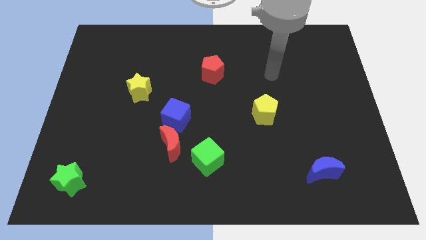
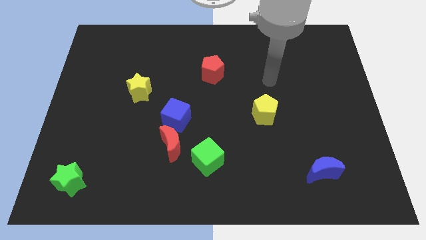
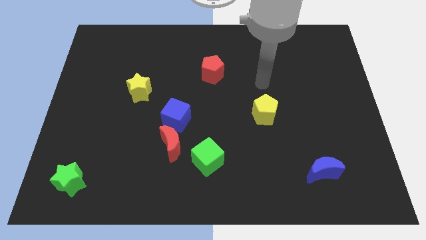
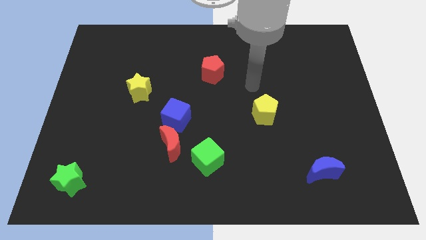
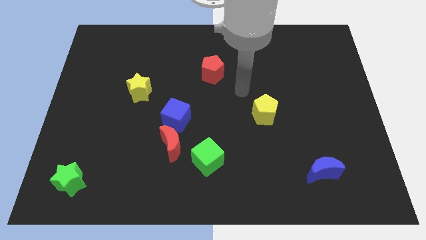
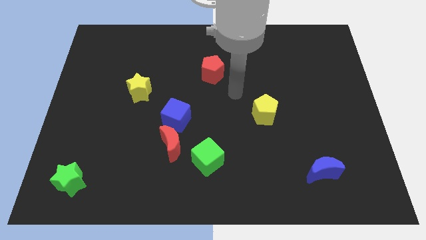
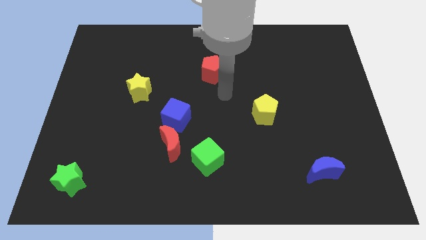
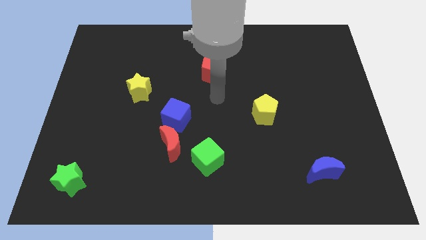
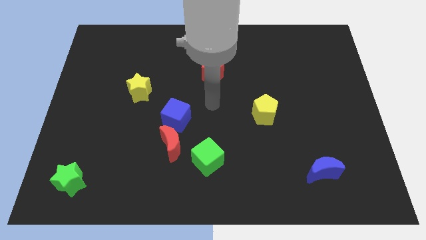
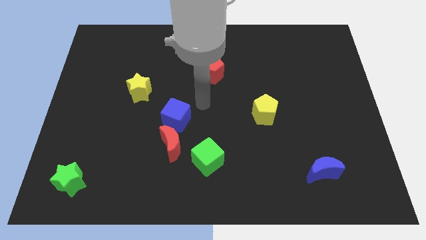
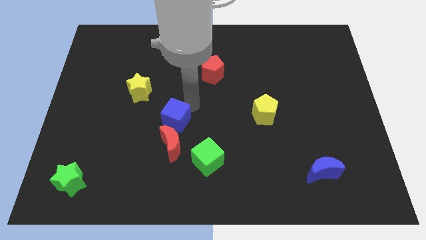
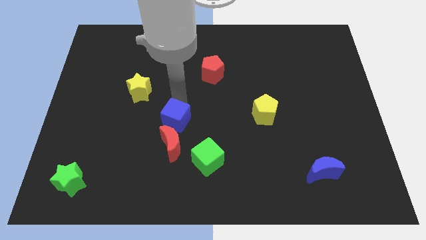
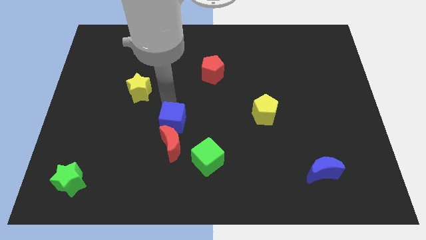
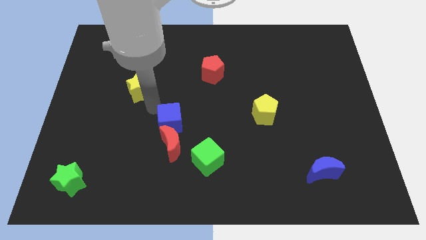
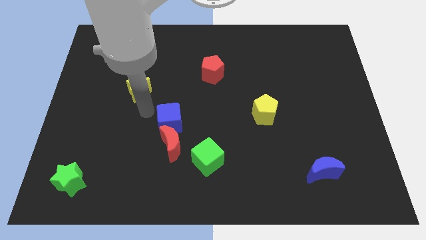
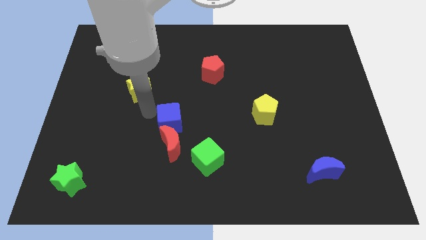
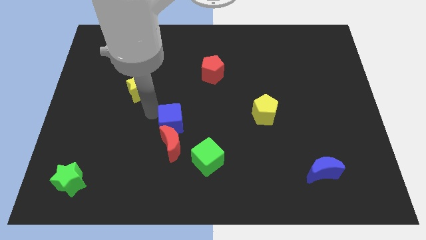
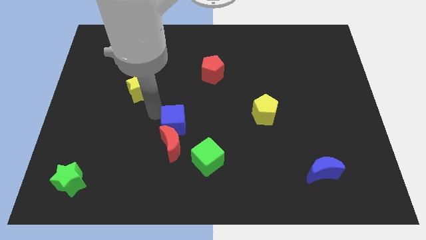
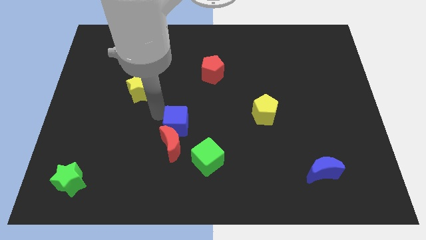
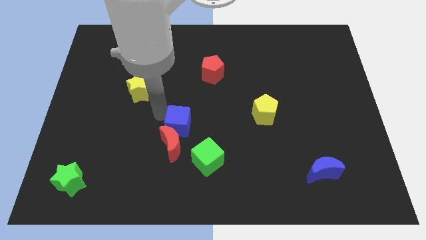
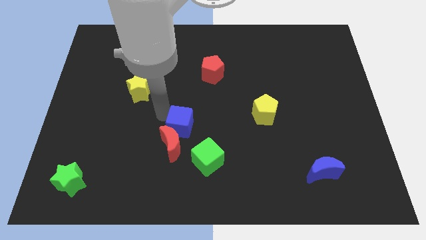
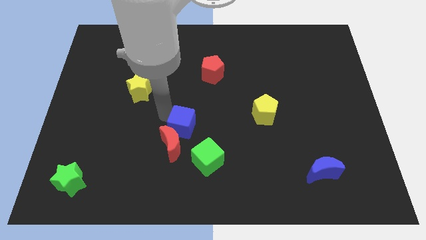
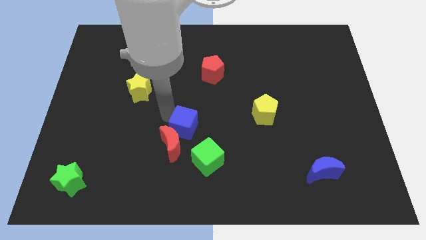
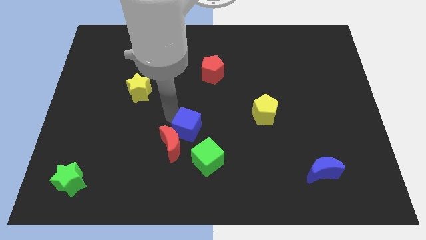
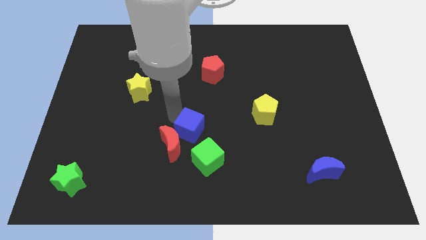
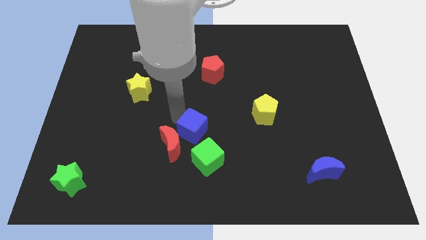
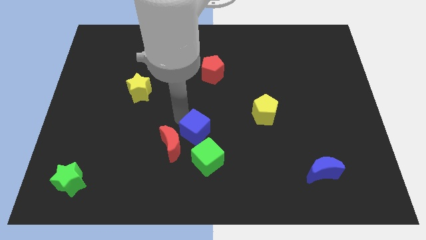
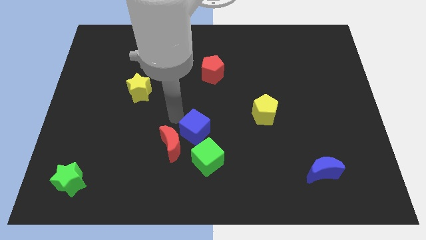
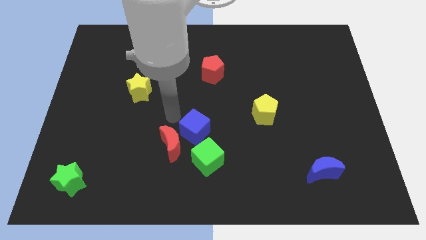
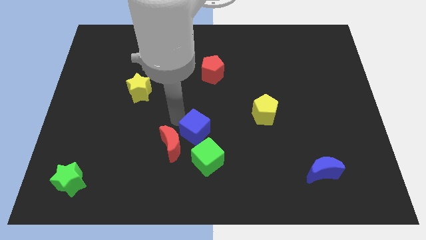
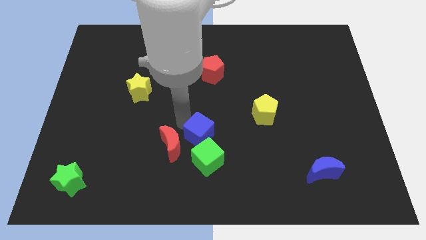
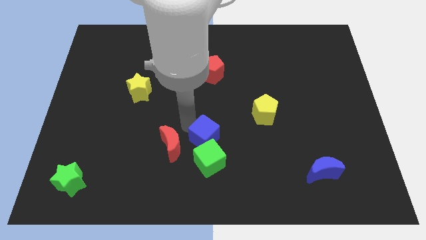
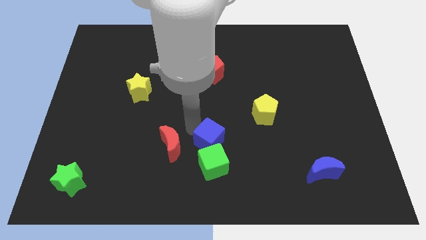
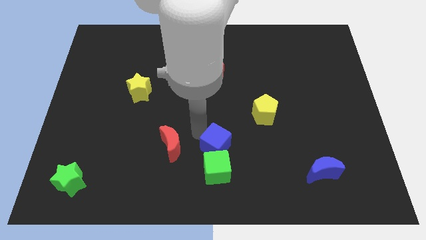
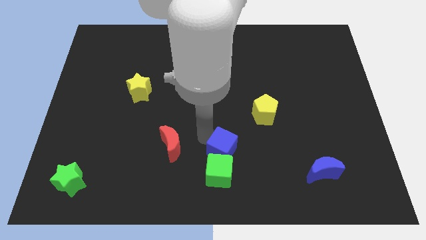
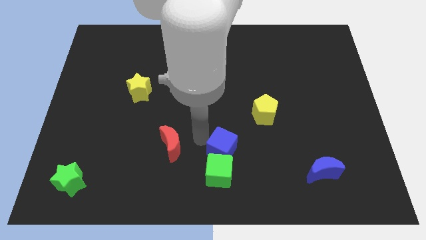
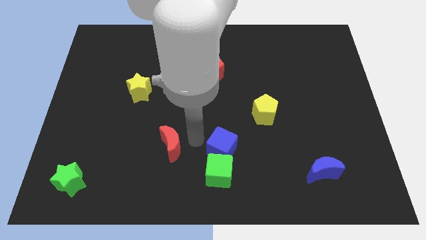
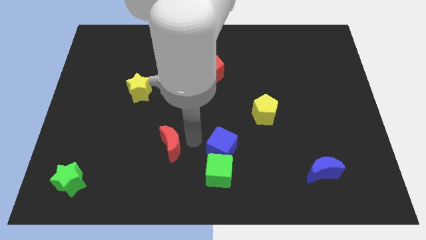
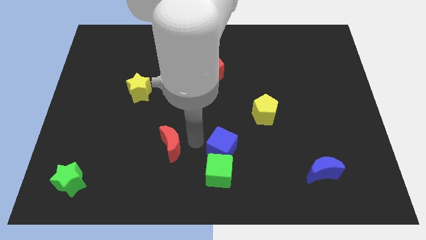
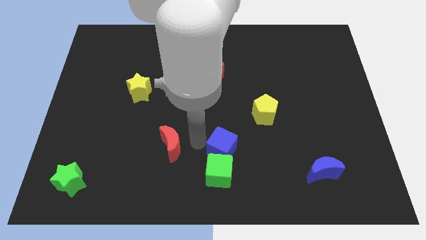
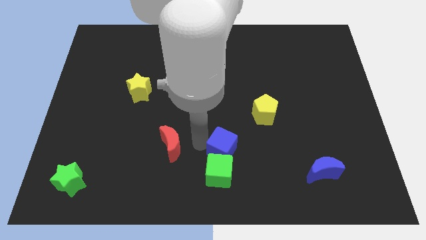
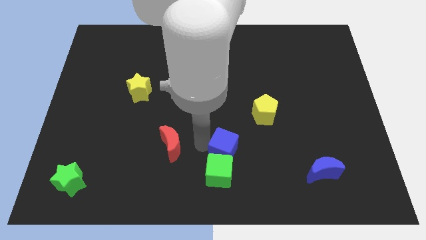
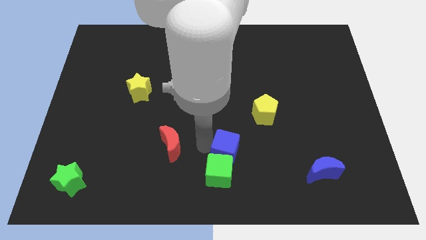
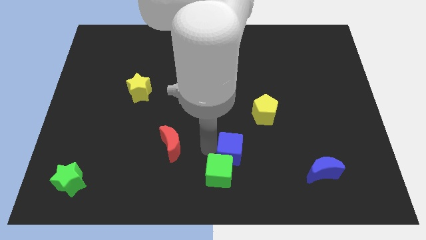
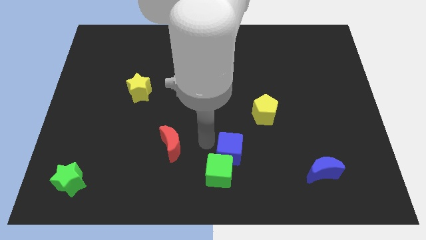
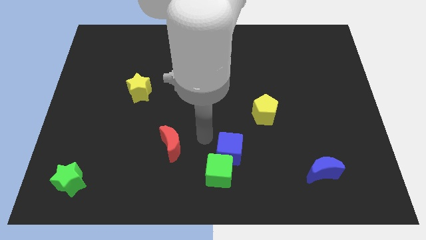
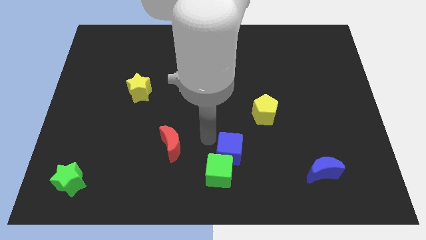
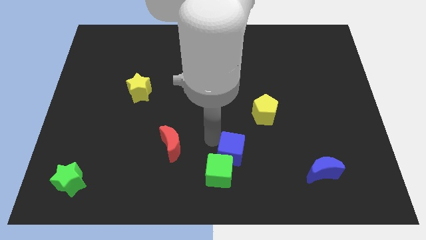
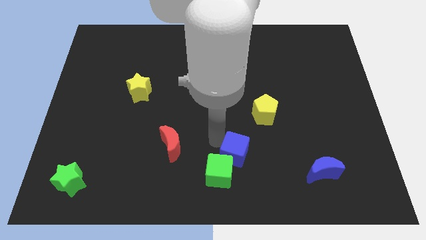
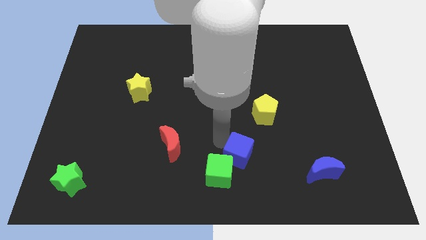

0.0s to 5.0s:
push the blue cube to the right of the green cube

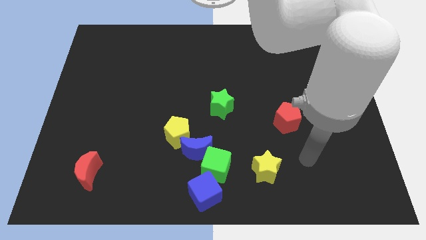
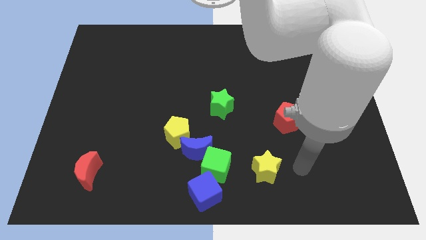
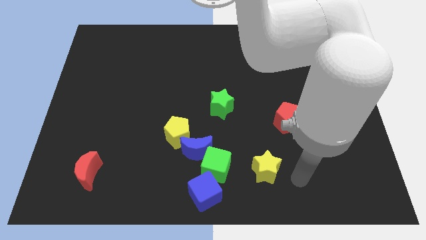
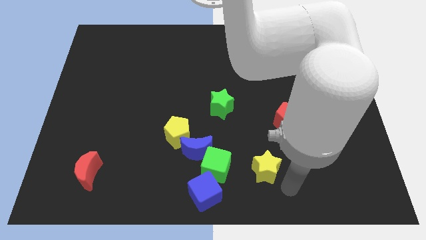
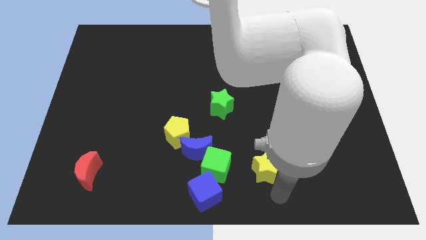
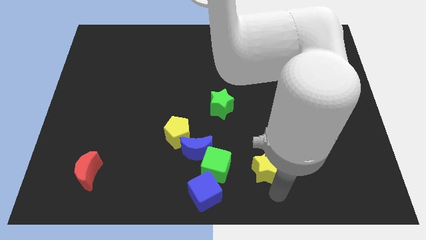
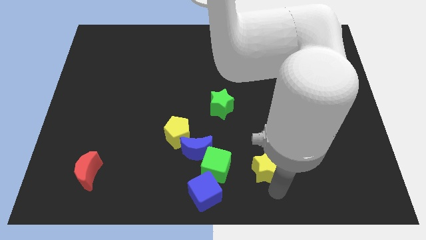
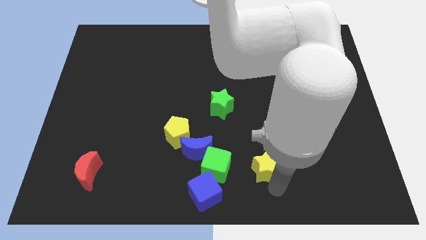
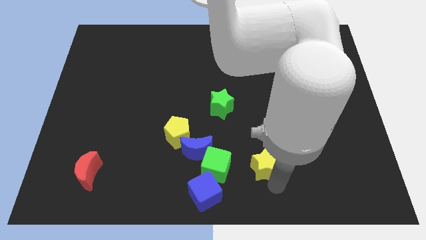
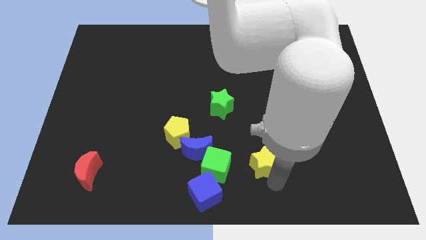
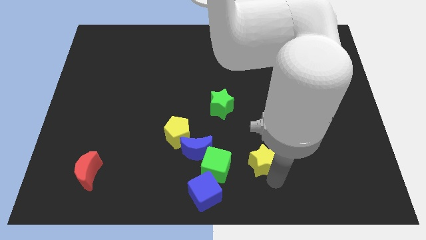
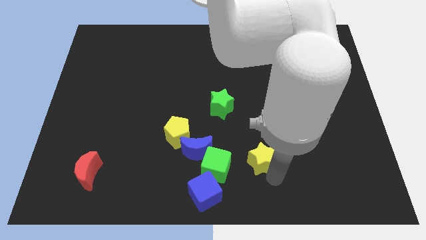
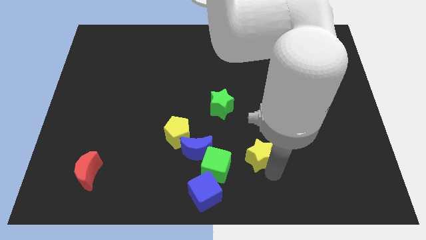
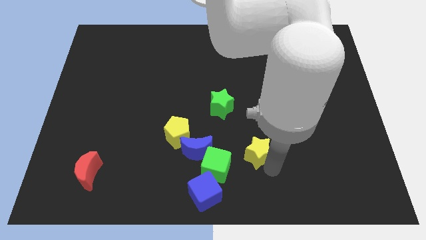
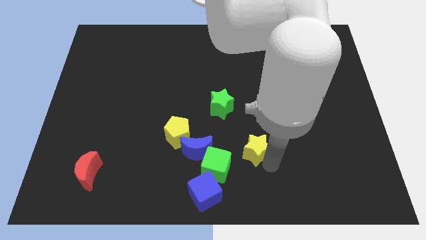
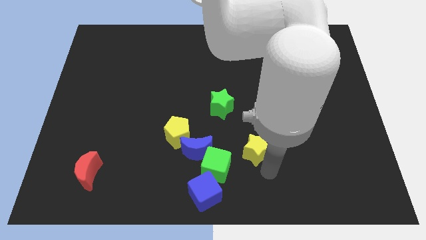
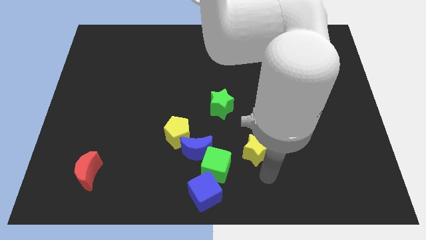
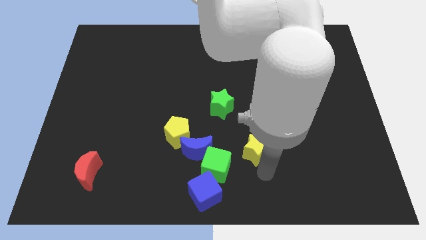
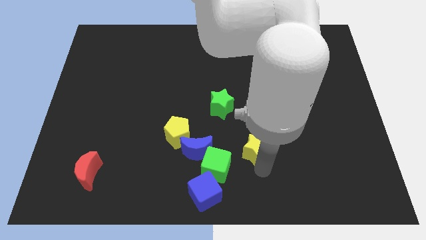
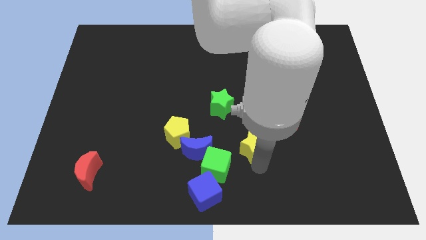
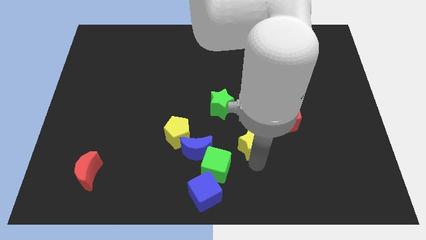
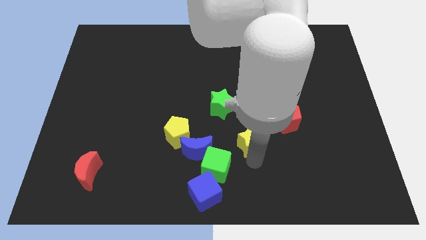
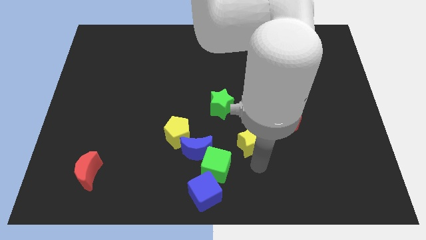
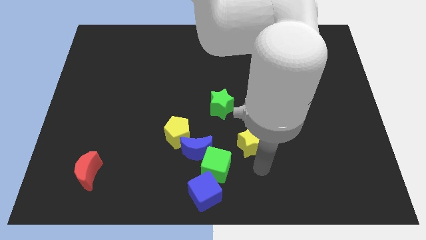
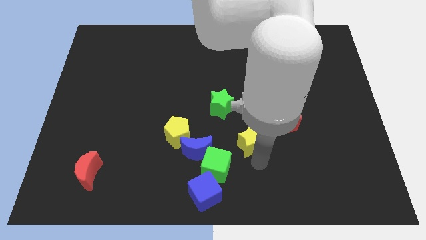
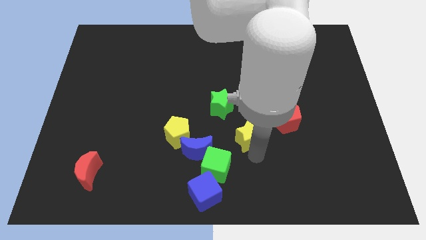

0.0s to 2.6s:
put the yellow star to the left of the red pentagon
